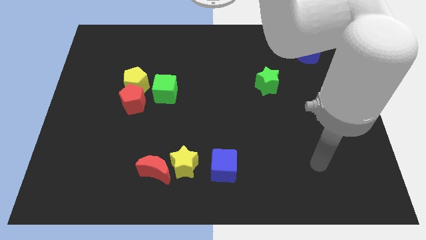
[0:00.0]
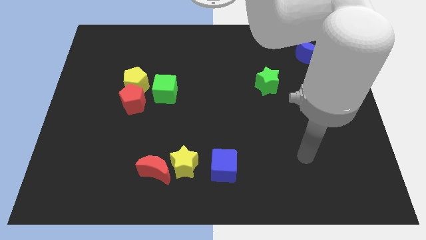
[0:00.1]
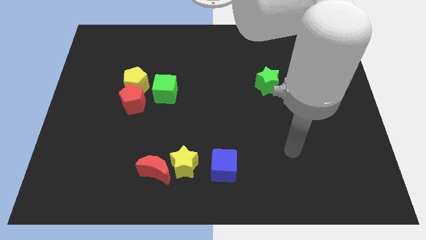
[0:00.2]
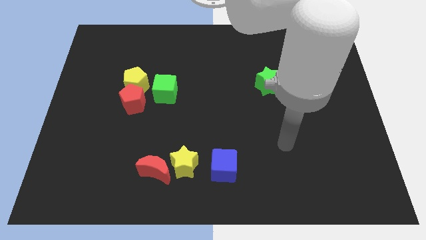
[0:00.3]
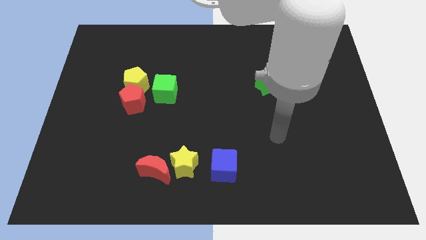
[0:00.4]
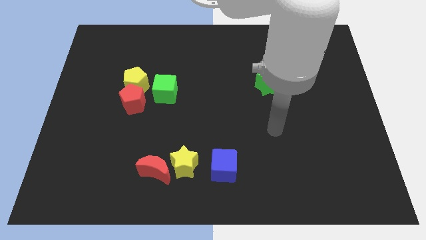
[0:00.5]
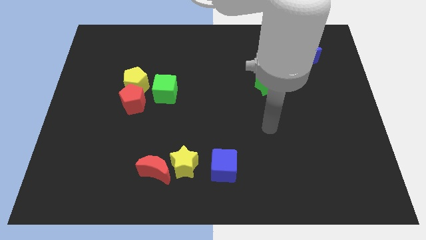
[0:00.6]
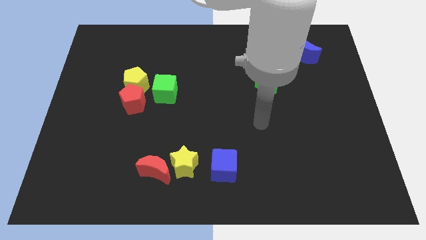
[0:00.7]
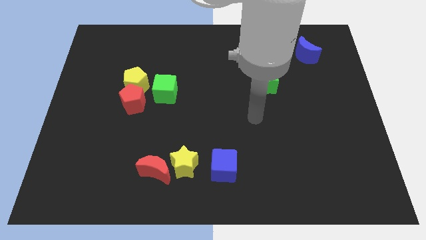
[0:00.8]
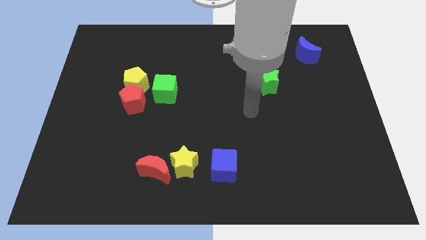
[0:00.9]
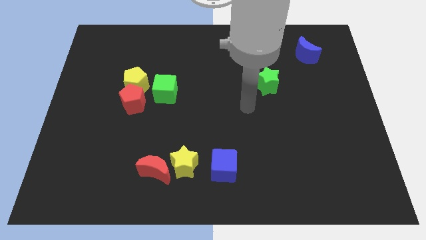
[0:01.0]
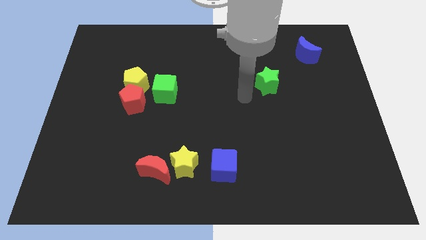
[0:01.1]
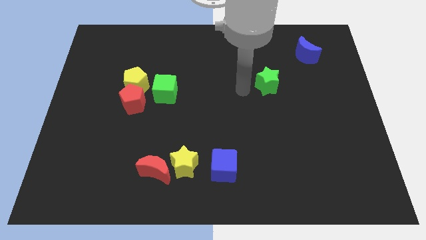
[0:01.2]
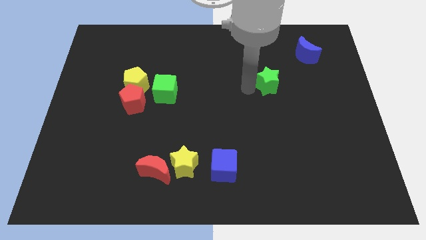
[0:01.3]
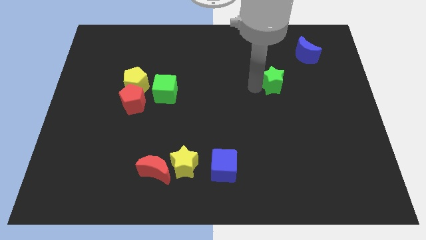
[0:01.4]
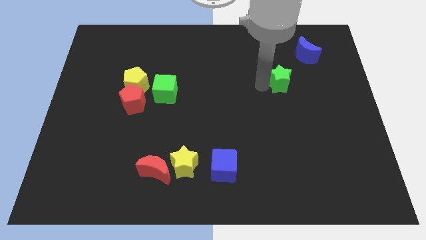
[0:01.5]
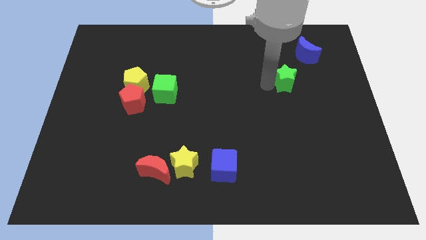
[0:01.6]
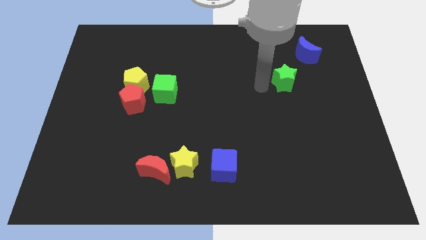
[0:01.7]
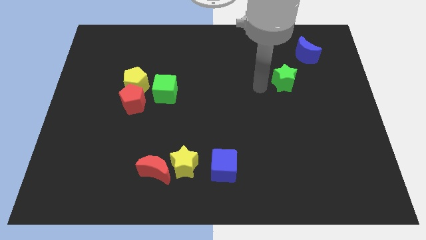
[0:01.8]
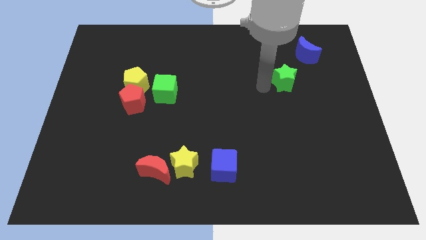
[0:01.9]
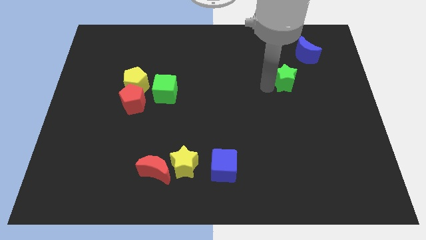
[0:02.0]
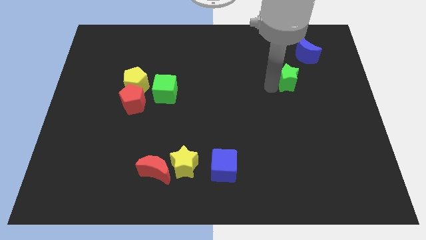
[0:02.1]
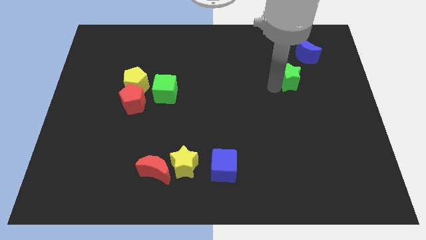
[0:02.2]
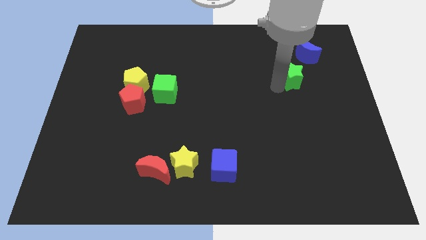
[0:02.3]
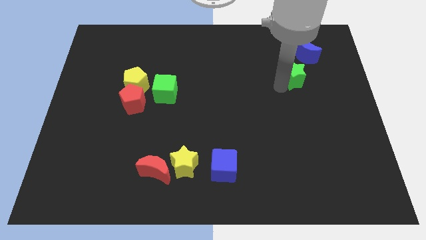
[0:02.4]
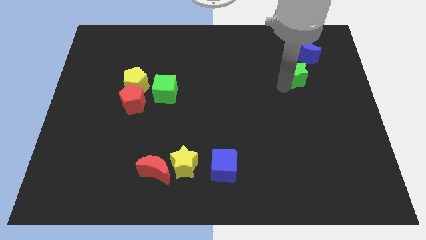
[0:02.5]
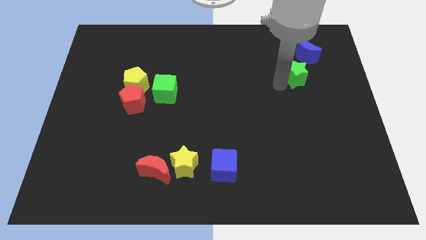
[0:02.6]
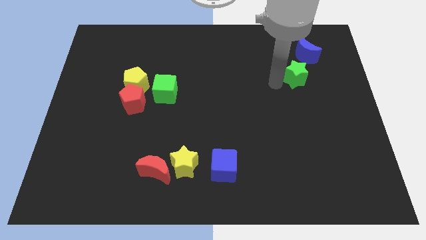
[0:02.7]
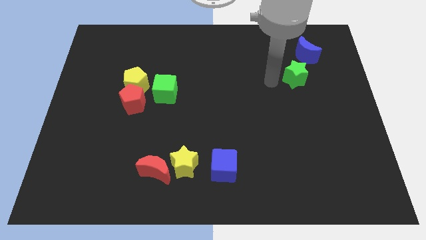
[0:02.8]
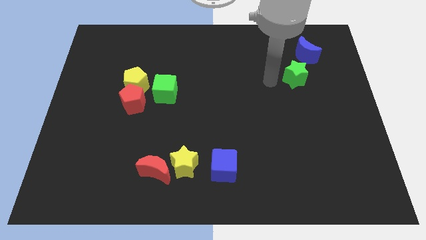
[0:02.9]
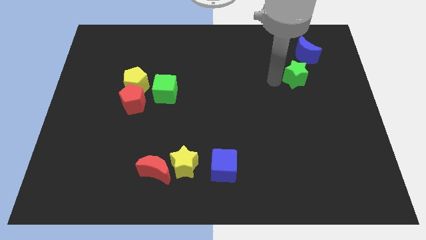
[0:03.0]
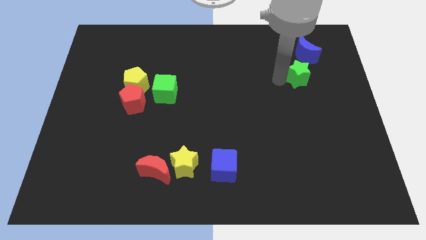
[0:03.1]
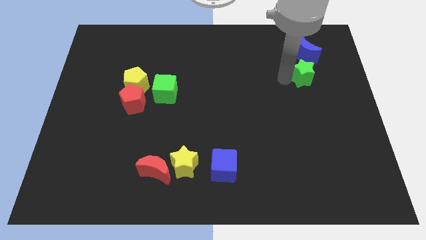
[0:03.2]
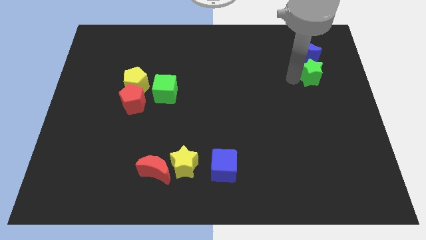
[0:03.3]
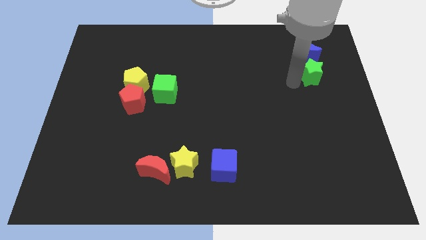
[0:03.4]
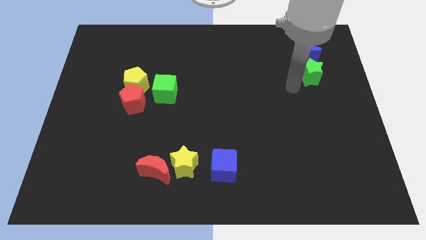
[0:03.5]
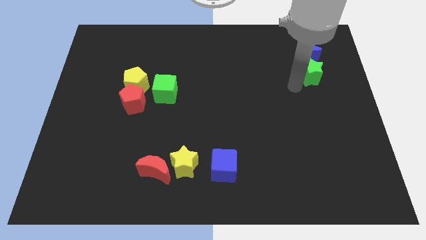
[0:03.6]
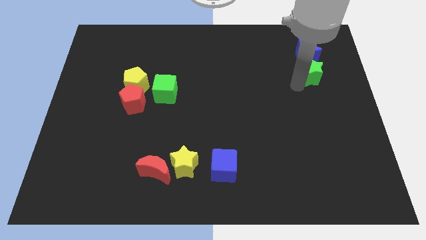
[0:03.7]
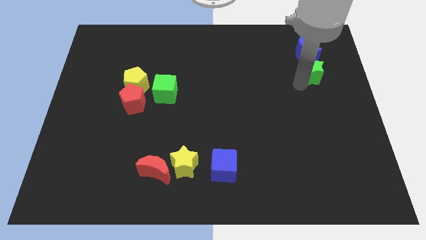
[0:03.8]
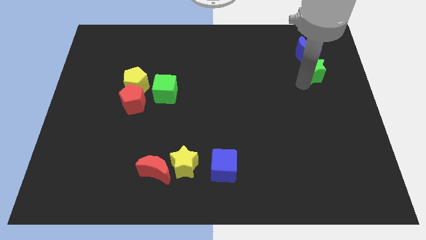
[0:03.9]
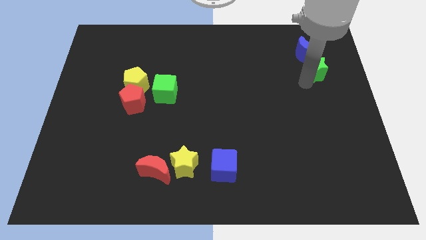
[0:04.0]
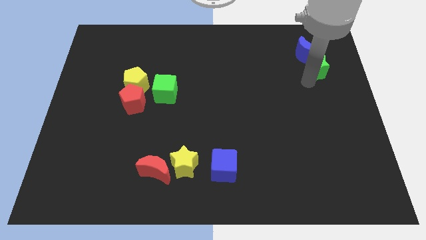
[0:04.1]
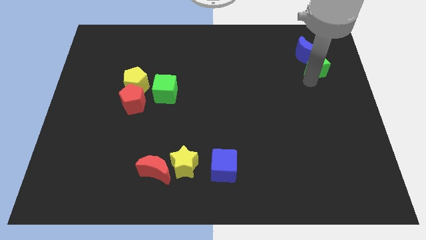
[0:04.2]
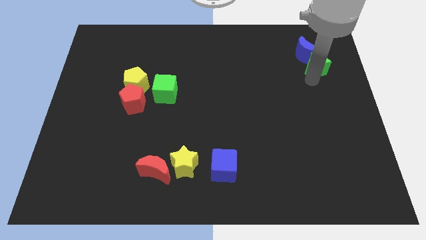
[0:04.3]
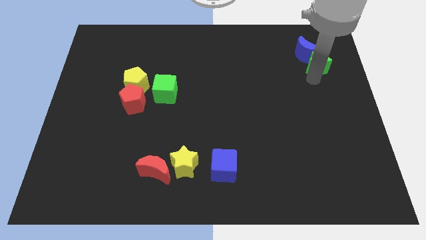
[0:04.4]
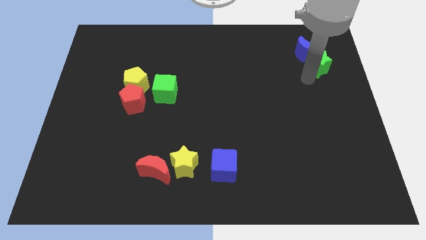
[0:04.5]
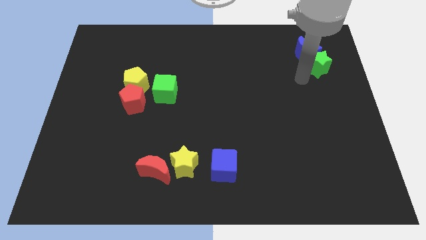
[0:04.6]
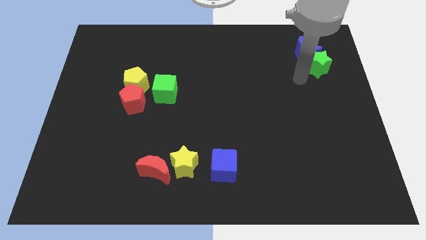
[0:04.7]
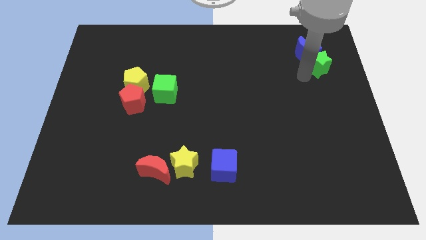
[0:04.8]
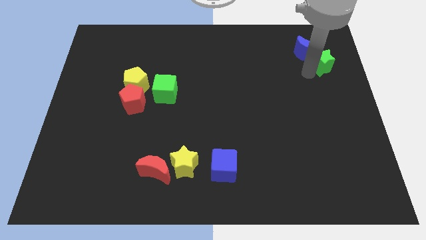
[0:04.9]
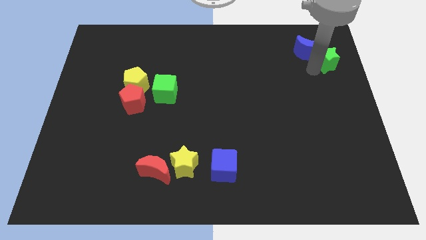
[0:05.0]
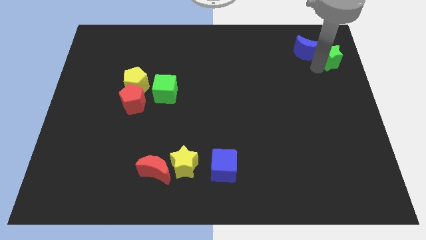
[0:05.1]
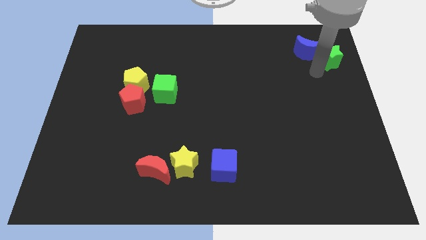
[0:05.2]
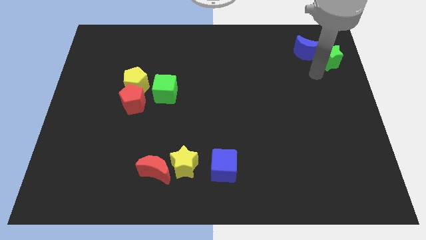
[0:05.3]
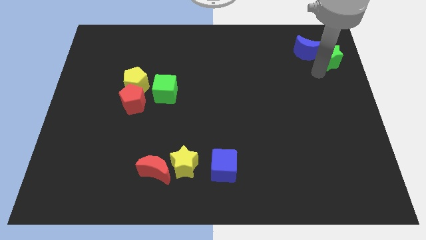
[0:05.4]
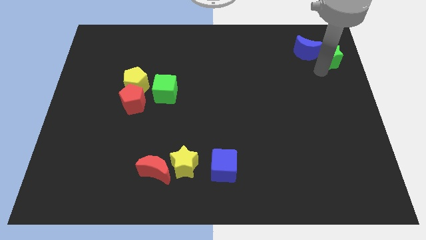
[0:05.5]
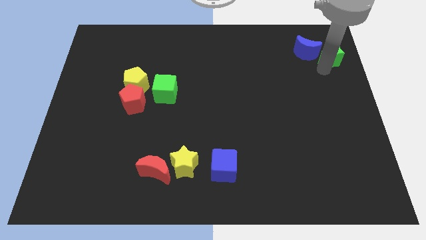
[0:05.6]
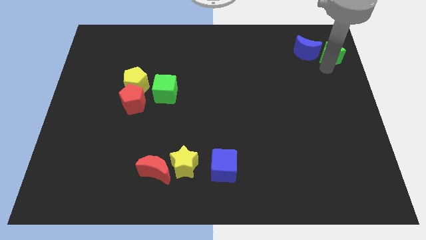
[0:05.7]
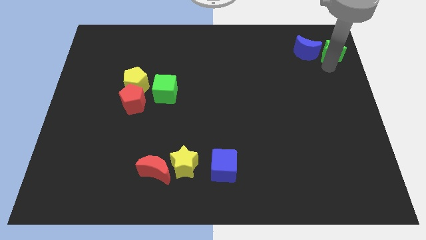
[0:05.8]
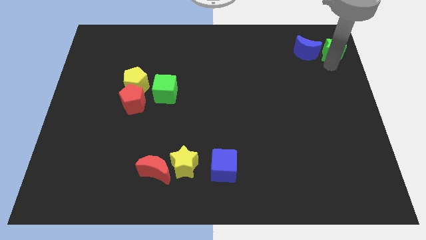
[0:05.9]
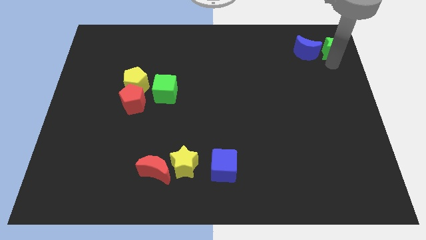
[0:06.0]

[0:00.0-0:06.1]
put the green star to the top right
